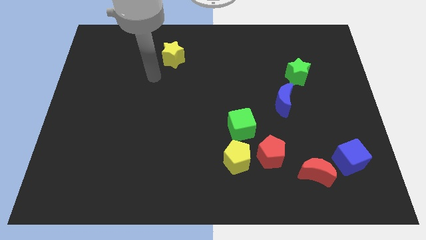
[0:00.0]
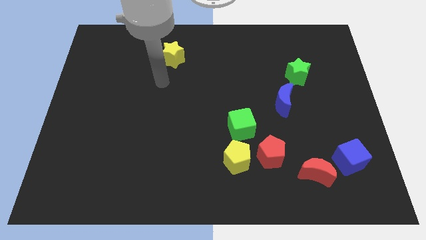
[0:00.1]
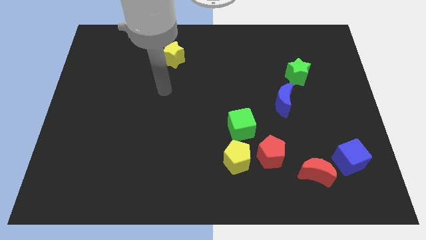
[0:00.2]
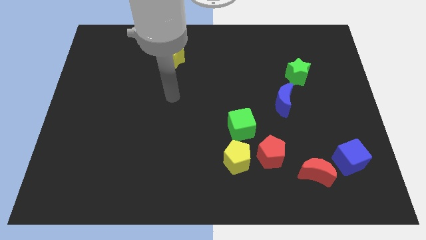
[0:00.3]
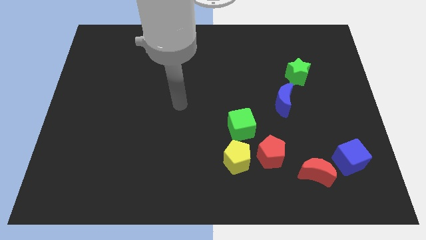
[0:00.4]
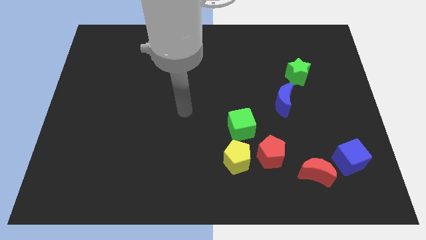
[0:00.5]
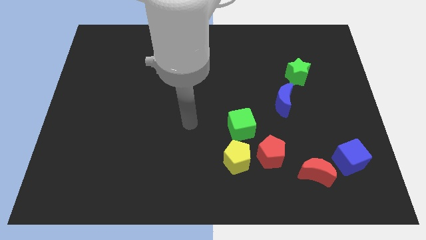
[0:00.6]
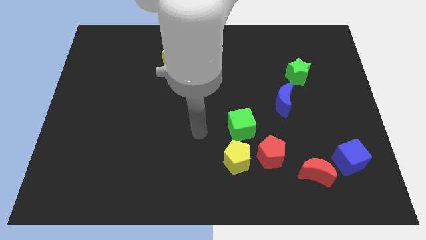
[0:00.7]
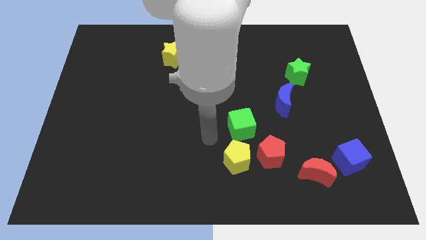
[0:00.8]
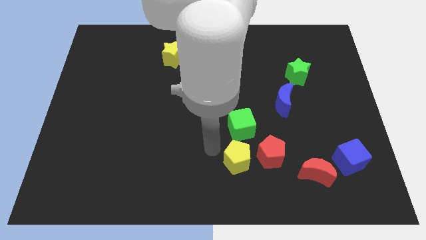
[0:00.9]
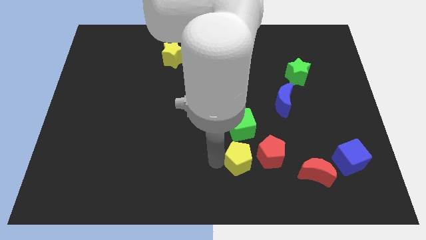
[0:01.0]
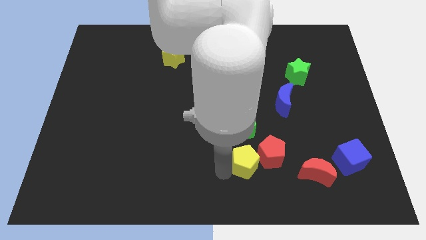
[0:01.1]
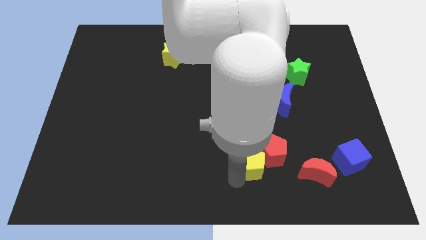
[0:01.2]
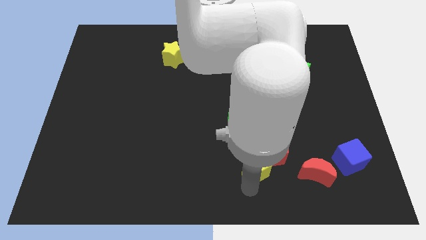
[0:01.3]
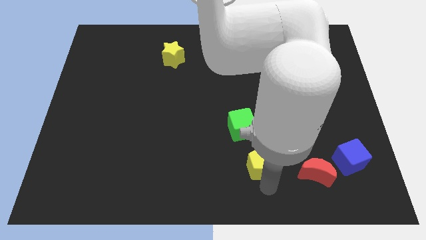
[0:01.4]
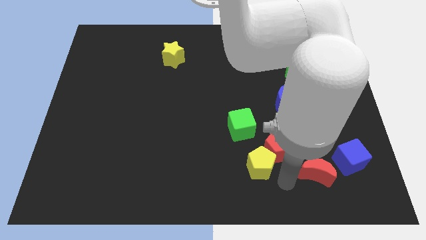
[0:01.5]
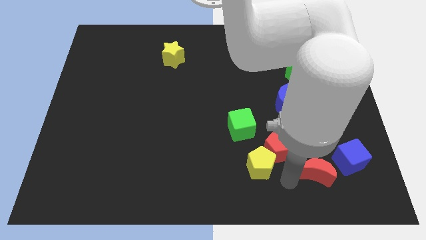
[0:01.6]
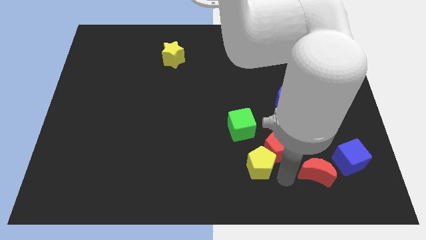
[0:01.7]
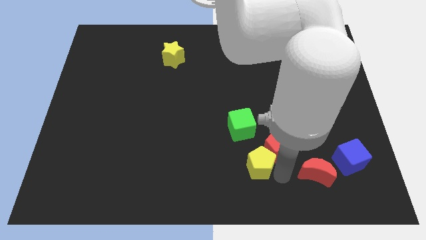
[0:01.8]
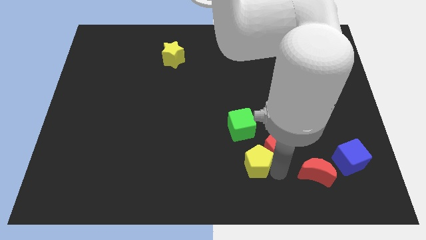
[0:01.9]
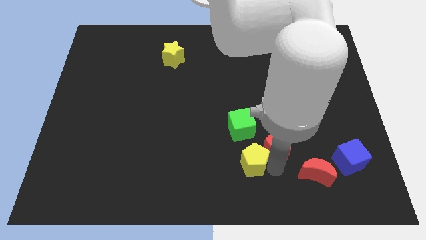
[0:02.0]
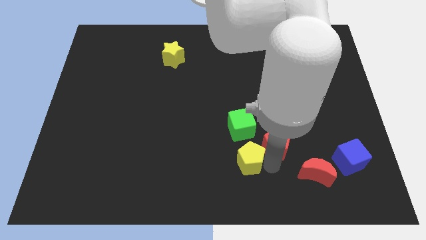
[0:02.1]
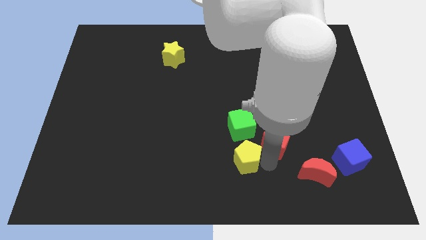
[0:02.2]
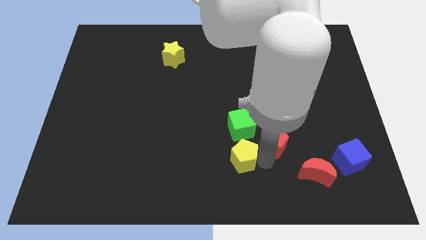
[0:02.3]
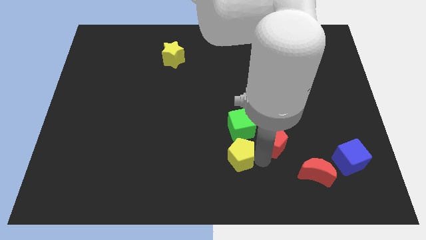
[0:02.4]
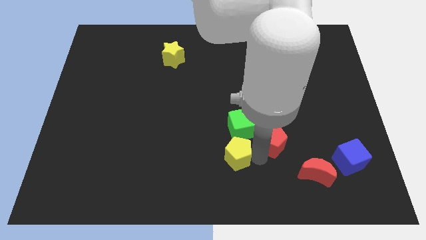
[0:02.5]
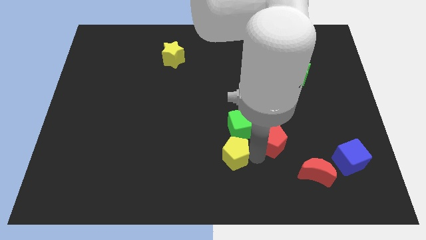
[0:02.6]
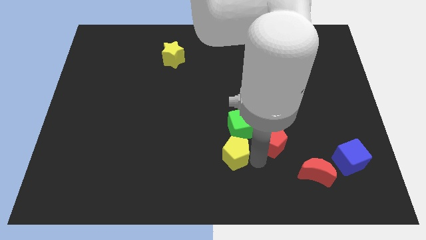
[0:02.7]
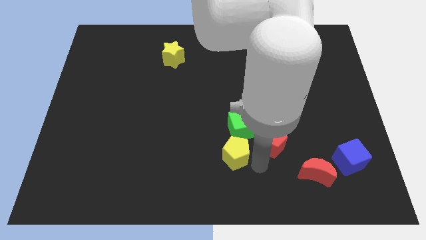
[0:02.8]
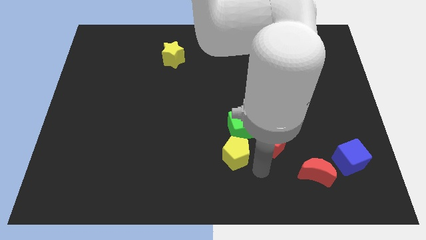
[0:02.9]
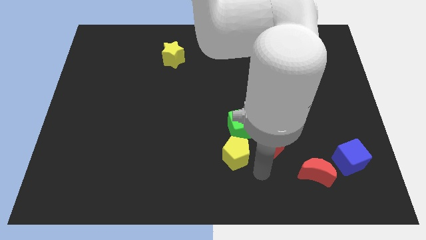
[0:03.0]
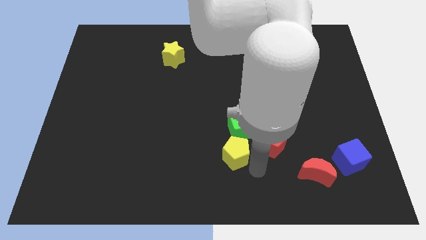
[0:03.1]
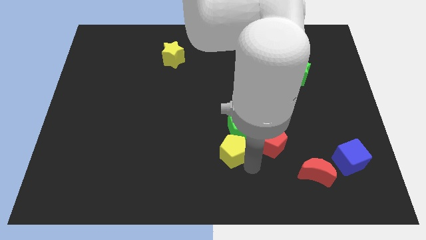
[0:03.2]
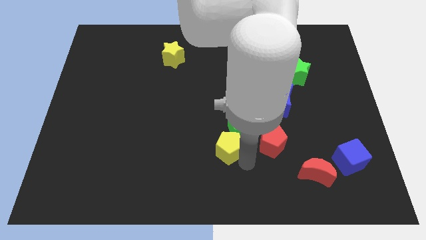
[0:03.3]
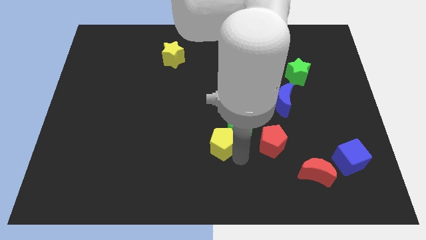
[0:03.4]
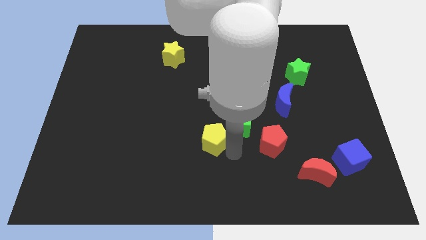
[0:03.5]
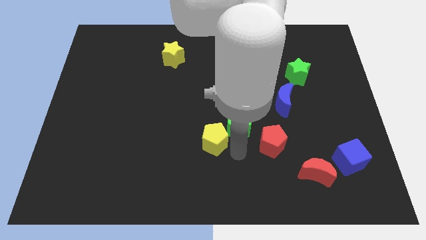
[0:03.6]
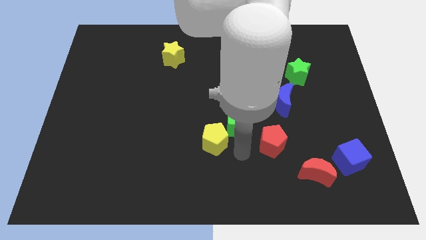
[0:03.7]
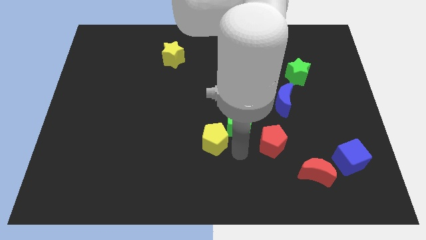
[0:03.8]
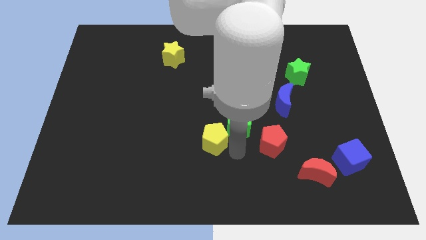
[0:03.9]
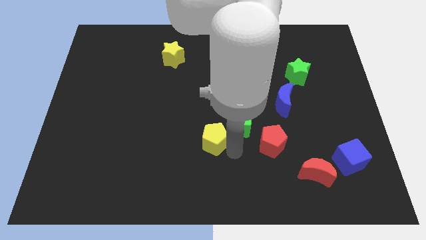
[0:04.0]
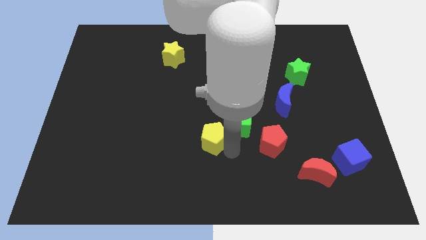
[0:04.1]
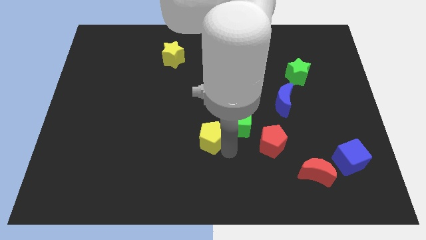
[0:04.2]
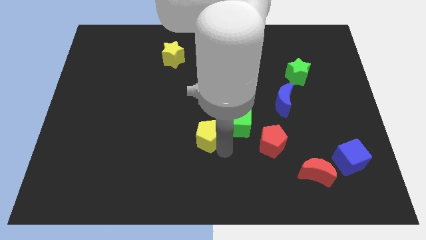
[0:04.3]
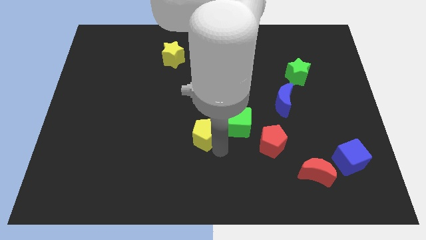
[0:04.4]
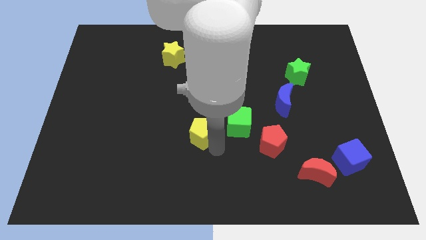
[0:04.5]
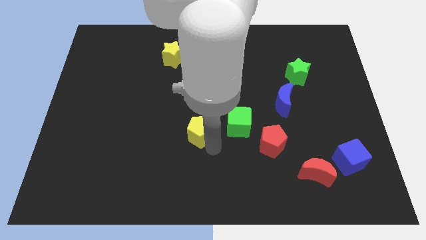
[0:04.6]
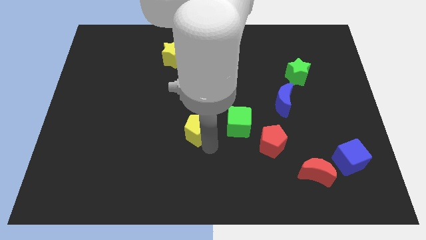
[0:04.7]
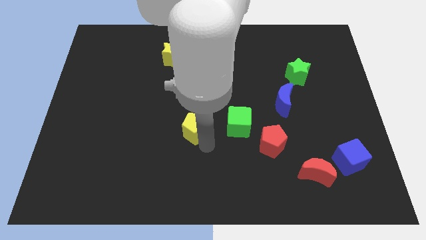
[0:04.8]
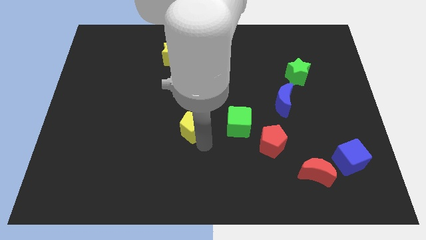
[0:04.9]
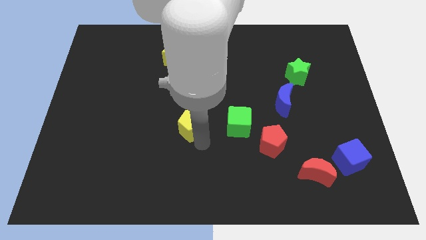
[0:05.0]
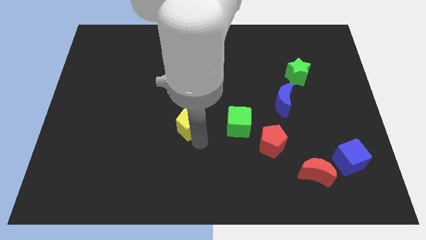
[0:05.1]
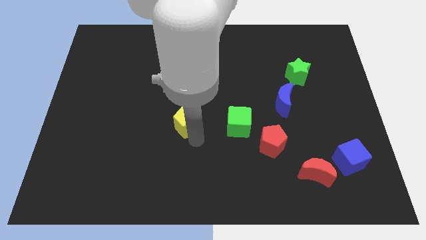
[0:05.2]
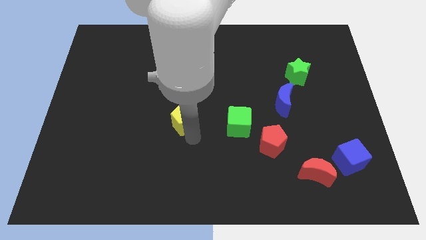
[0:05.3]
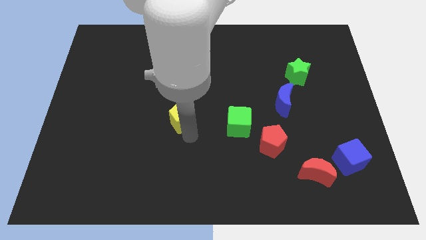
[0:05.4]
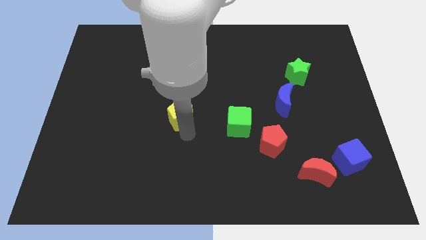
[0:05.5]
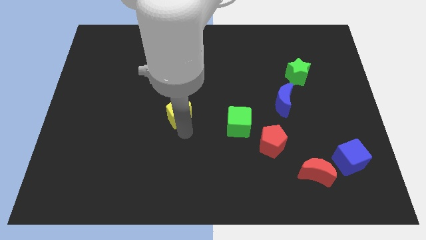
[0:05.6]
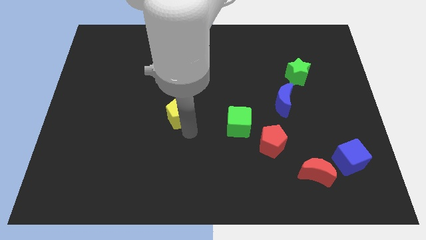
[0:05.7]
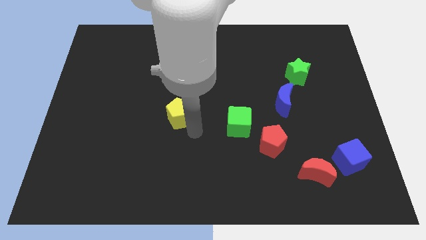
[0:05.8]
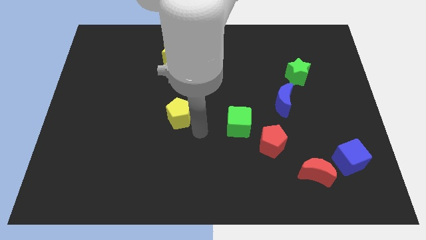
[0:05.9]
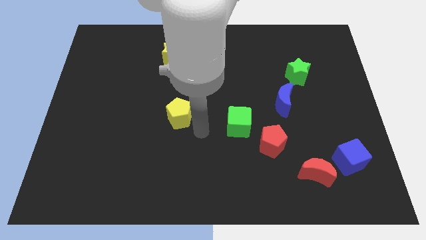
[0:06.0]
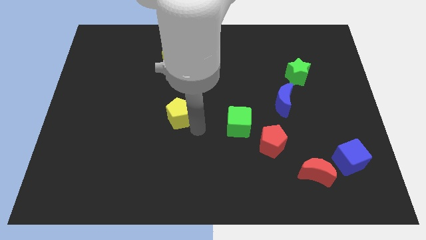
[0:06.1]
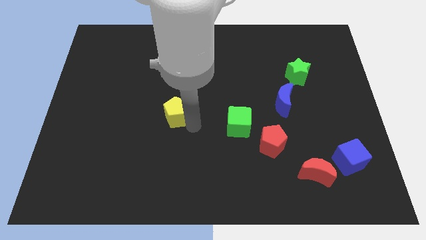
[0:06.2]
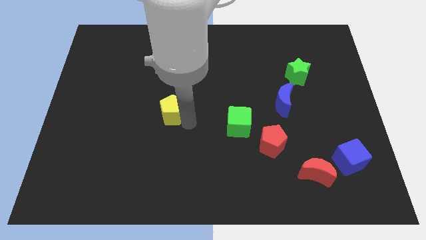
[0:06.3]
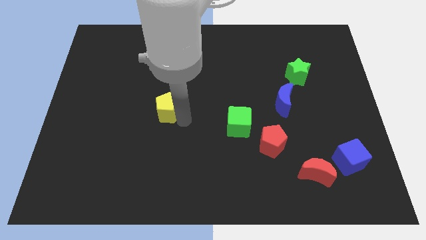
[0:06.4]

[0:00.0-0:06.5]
push the yellow pentagon upwards and to the left diagonally

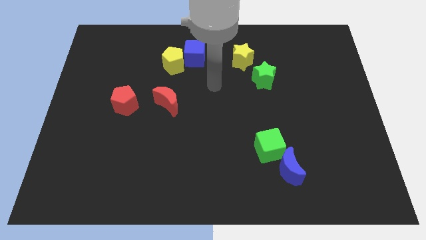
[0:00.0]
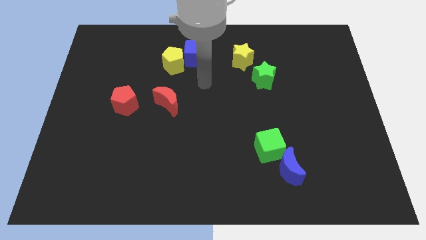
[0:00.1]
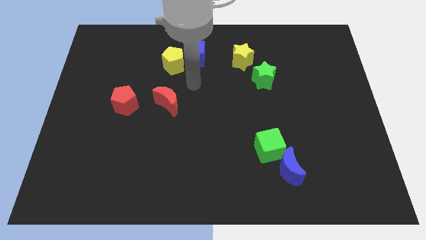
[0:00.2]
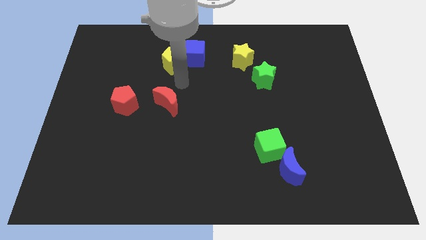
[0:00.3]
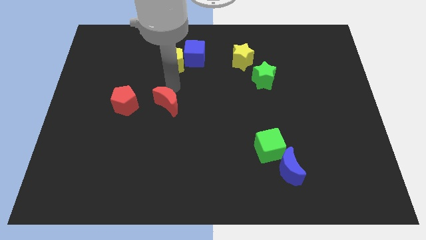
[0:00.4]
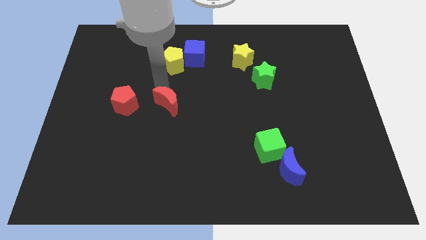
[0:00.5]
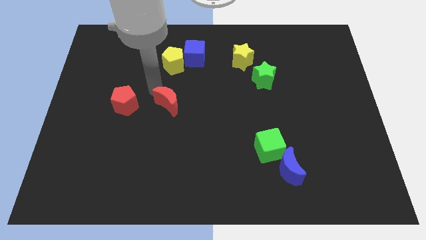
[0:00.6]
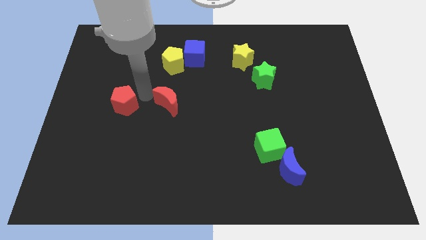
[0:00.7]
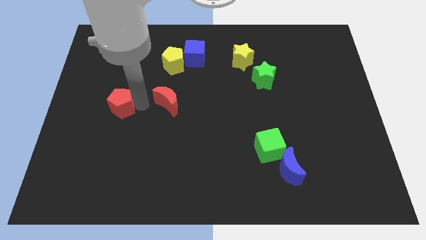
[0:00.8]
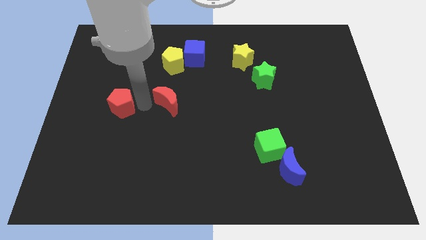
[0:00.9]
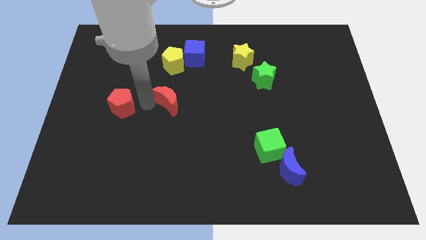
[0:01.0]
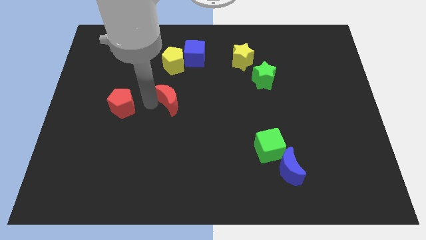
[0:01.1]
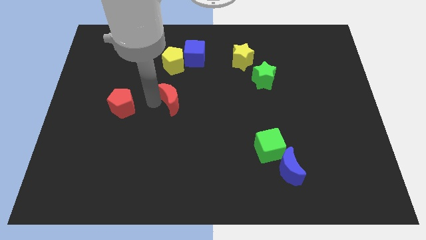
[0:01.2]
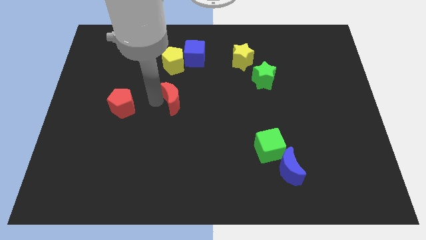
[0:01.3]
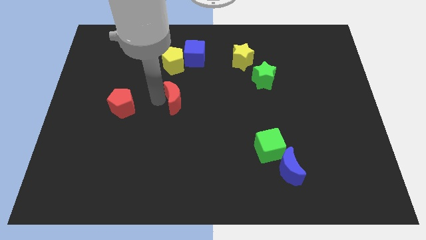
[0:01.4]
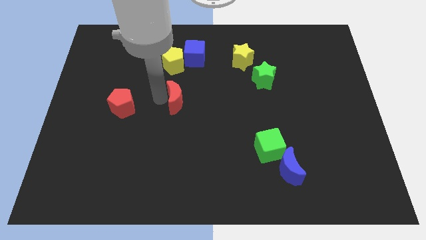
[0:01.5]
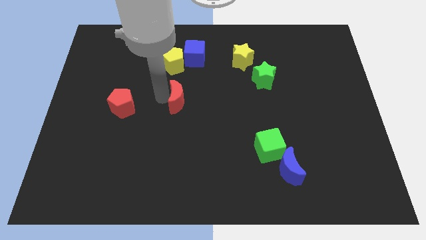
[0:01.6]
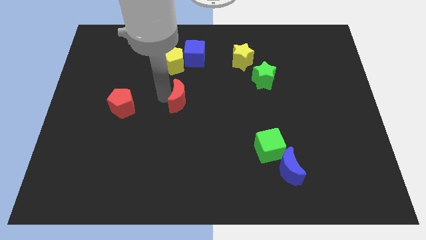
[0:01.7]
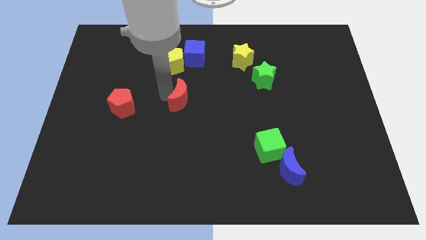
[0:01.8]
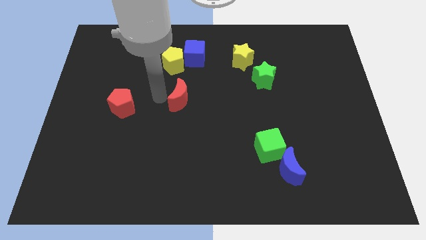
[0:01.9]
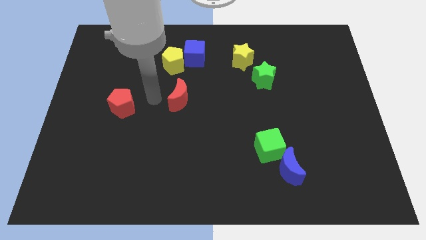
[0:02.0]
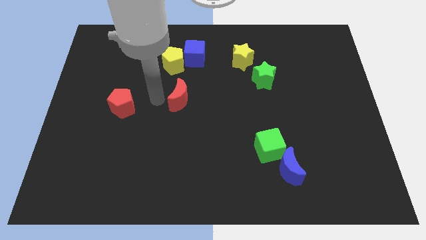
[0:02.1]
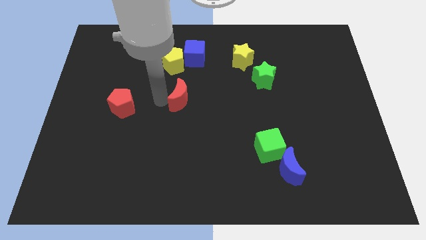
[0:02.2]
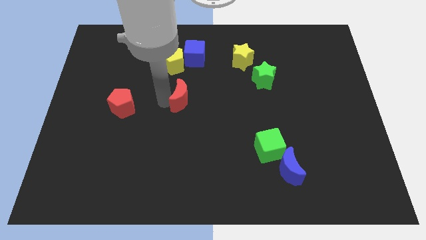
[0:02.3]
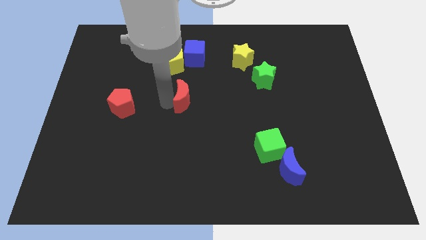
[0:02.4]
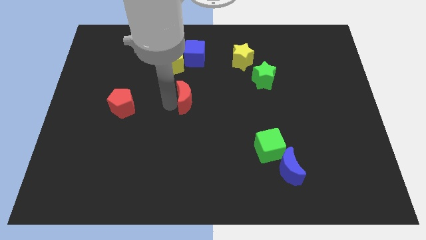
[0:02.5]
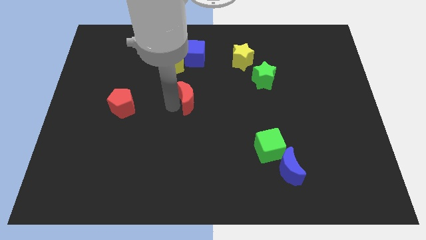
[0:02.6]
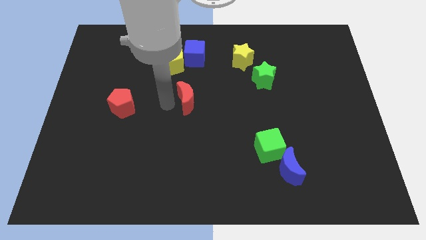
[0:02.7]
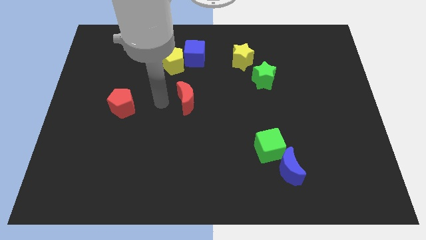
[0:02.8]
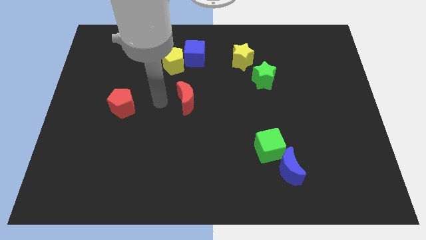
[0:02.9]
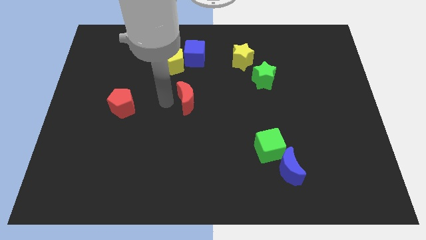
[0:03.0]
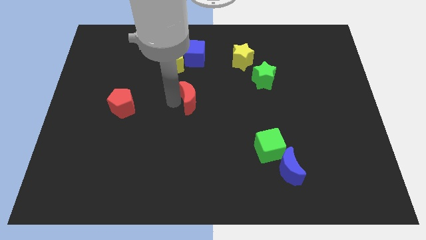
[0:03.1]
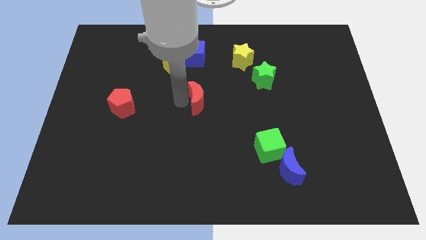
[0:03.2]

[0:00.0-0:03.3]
slightly move the red moon right
